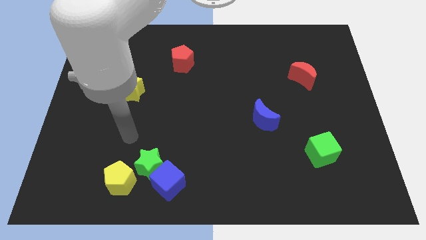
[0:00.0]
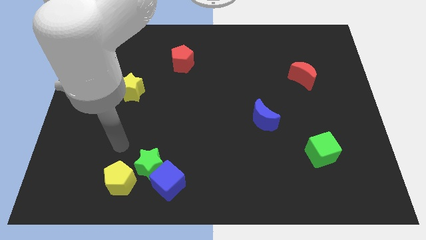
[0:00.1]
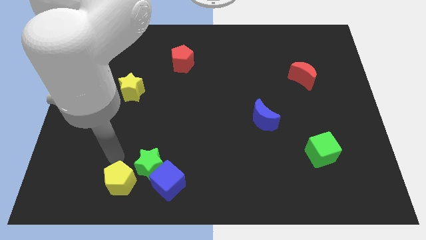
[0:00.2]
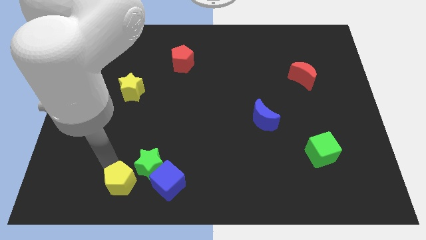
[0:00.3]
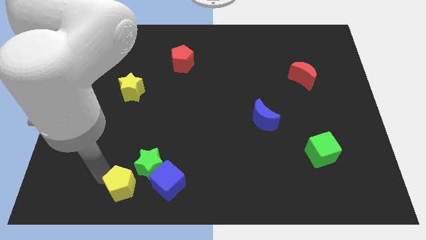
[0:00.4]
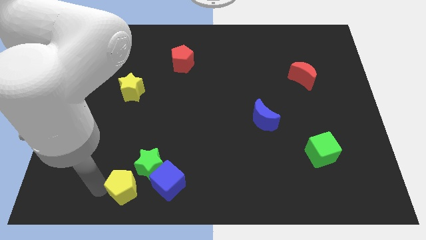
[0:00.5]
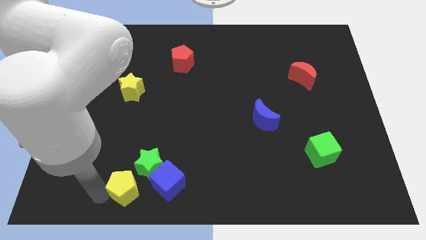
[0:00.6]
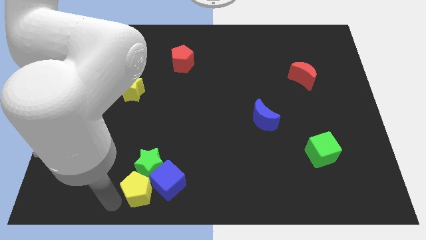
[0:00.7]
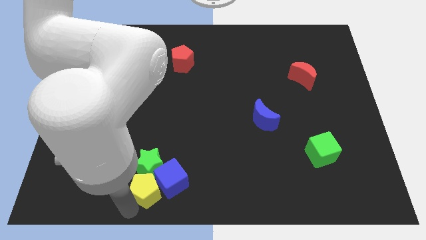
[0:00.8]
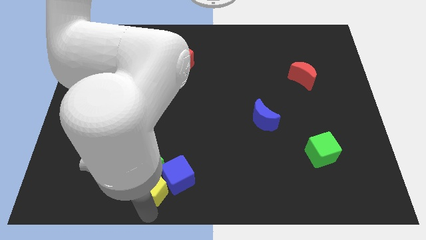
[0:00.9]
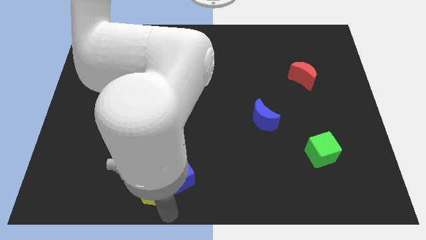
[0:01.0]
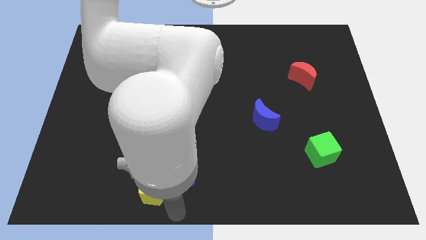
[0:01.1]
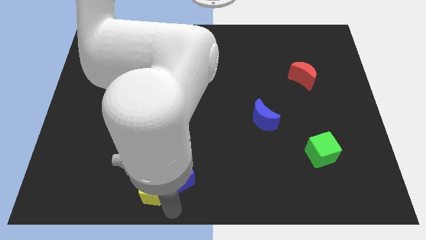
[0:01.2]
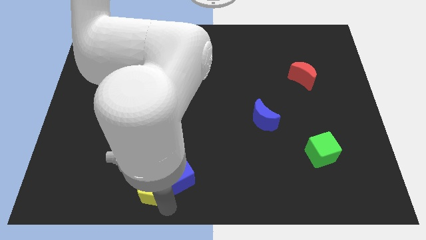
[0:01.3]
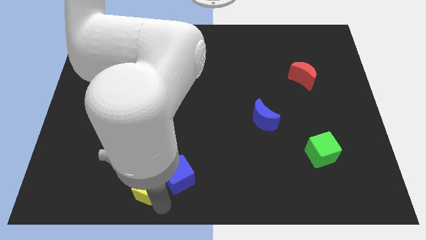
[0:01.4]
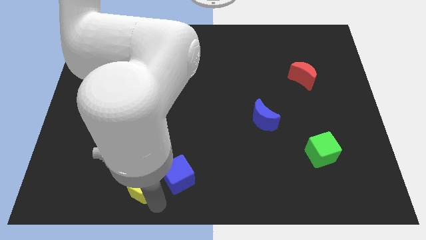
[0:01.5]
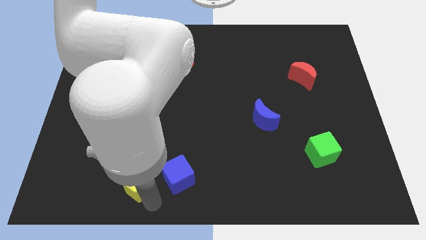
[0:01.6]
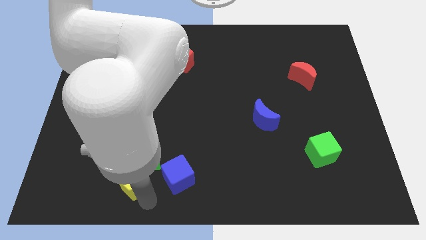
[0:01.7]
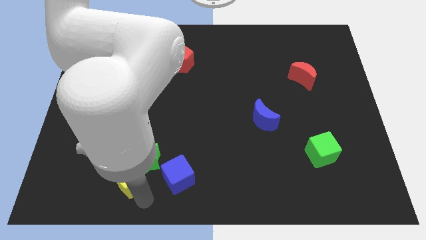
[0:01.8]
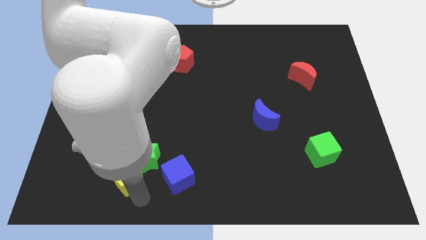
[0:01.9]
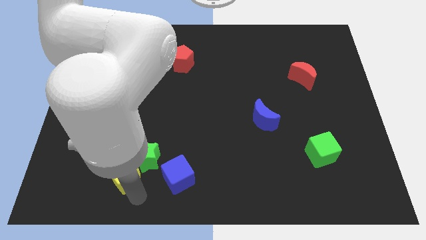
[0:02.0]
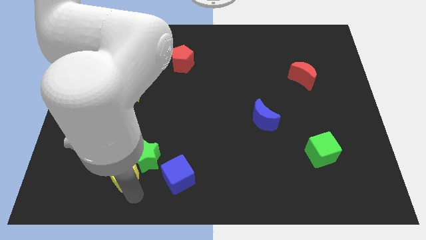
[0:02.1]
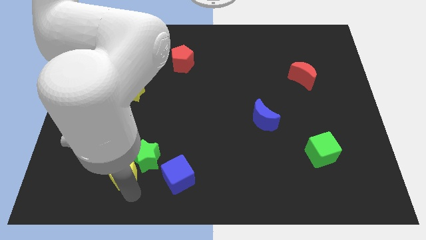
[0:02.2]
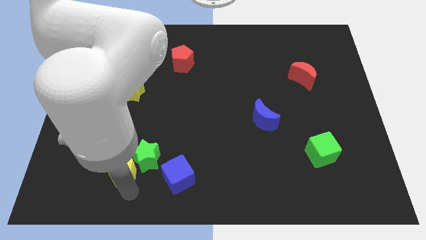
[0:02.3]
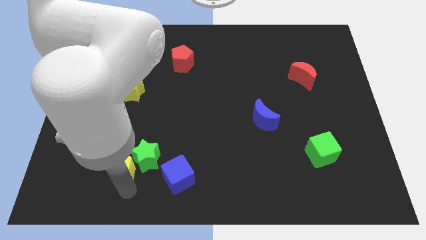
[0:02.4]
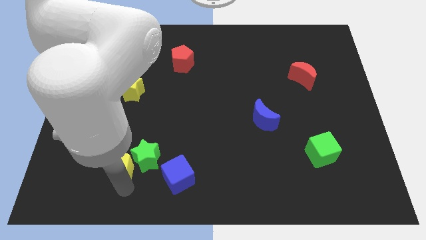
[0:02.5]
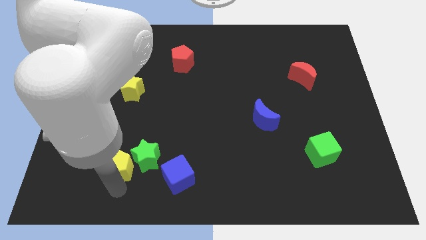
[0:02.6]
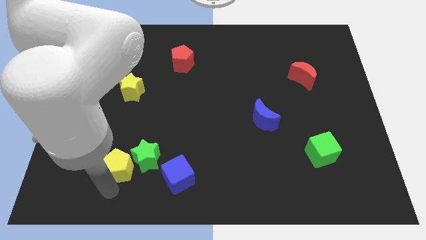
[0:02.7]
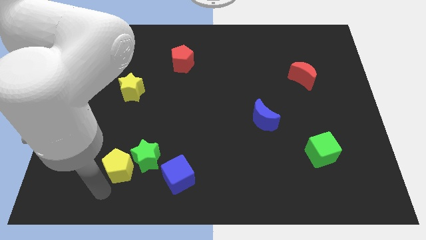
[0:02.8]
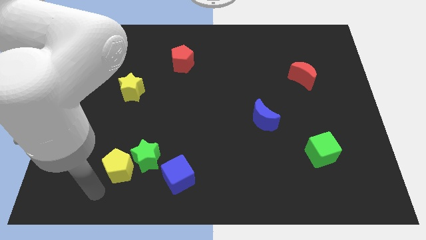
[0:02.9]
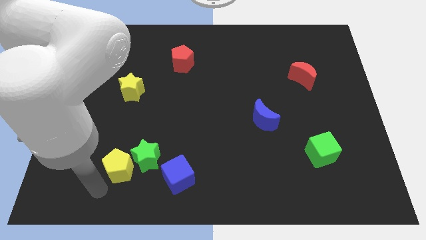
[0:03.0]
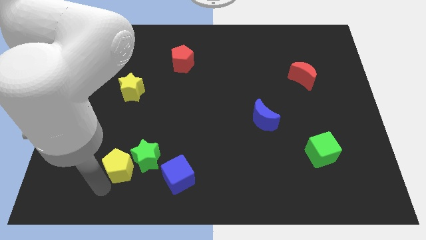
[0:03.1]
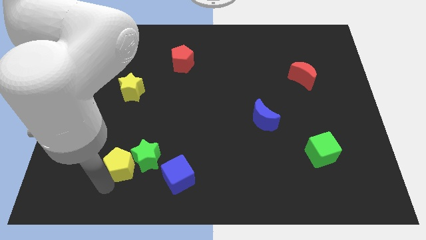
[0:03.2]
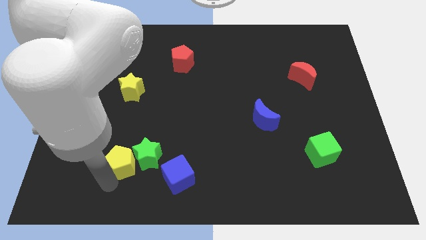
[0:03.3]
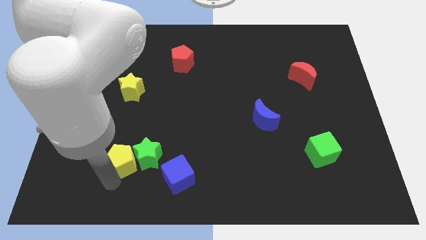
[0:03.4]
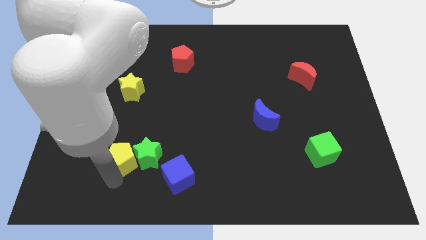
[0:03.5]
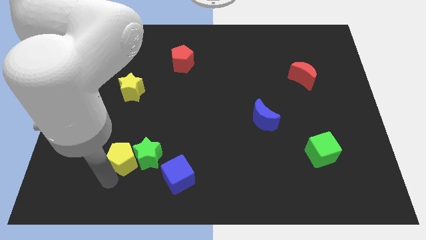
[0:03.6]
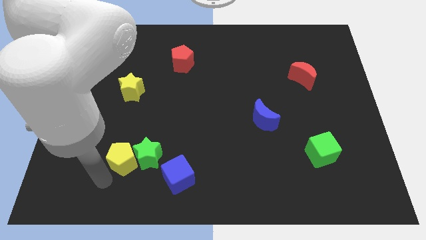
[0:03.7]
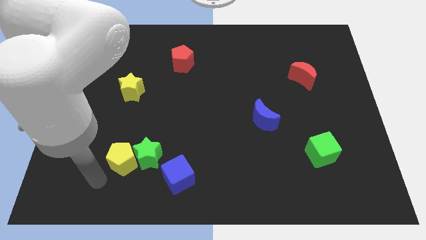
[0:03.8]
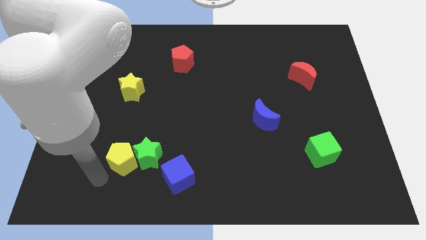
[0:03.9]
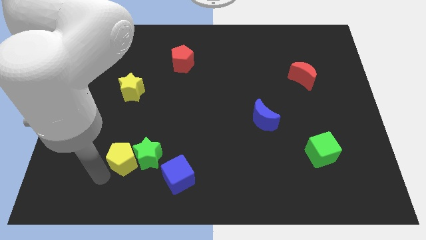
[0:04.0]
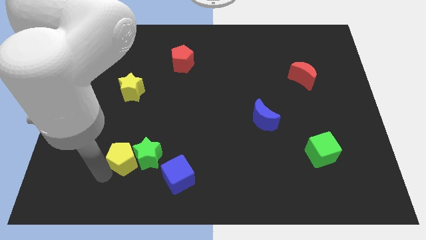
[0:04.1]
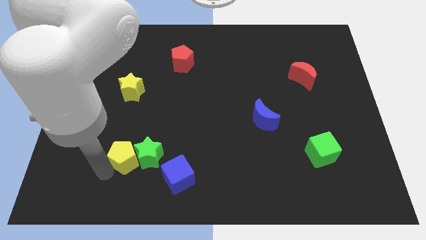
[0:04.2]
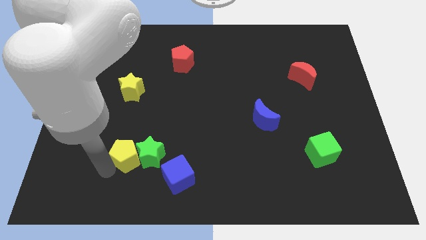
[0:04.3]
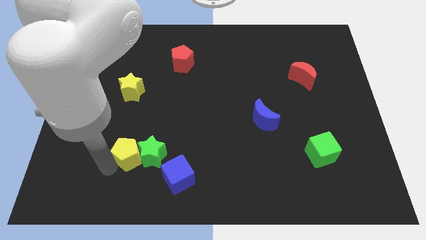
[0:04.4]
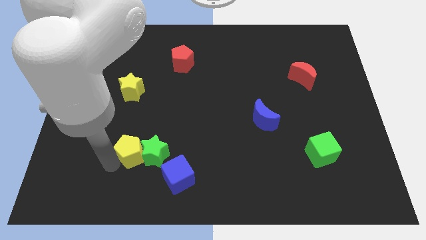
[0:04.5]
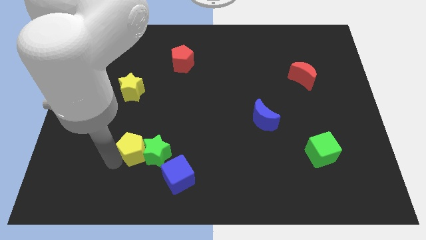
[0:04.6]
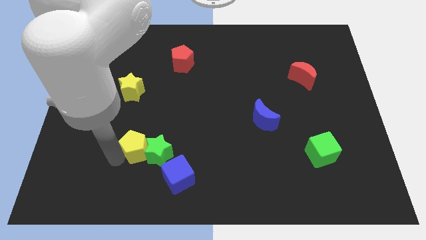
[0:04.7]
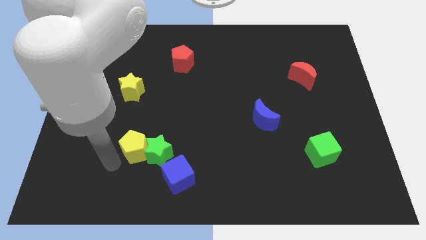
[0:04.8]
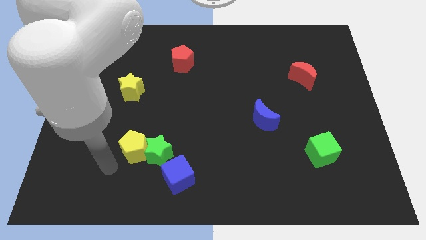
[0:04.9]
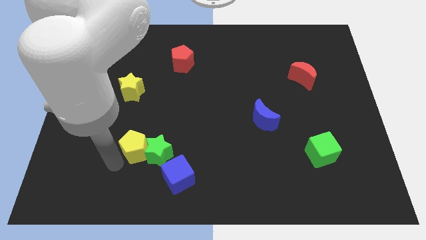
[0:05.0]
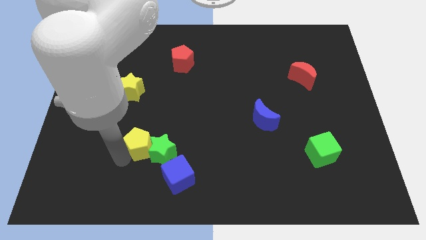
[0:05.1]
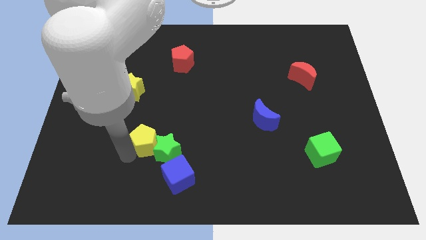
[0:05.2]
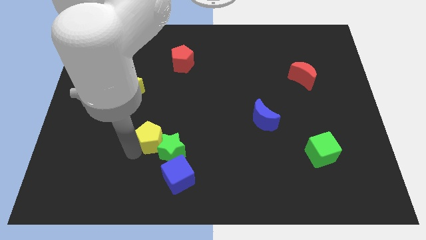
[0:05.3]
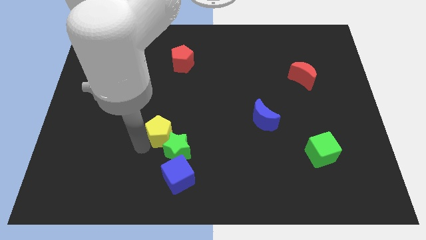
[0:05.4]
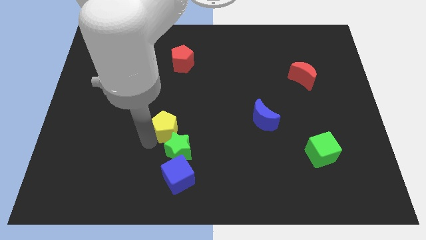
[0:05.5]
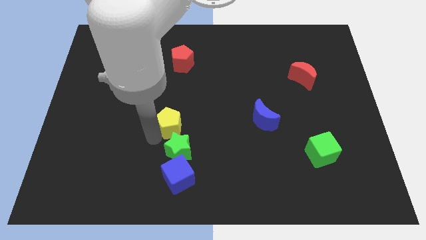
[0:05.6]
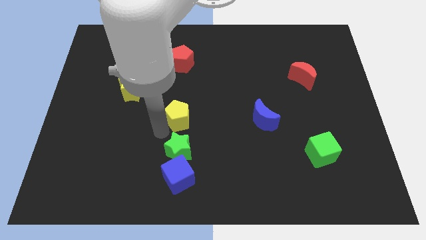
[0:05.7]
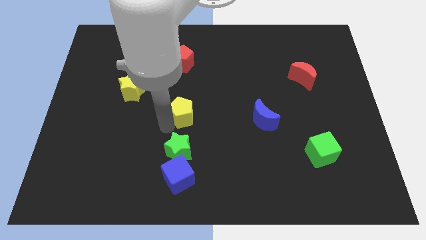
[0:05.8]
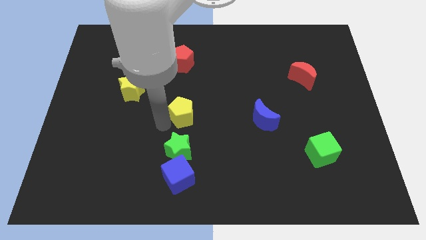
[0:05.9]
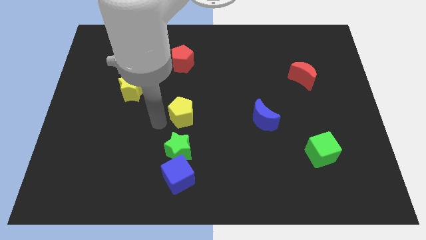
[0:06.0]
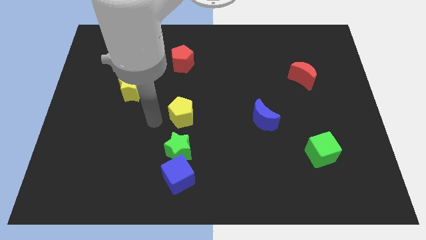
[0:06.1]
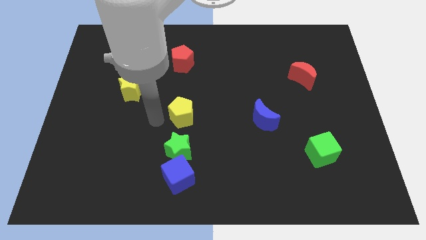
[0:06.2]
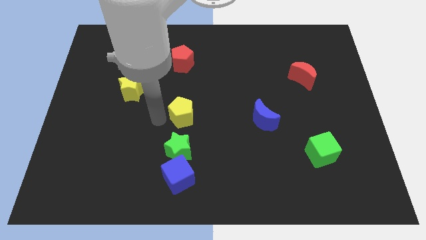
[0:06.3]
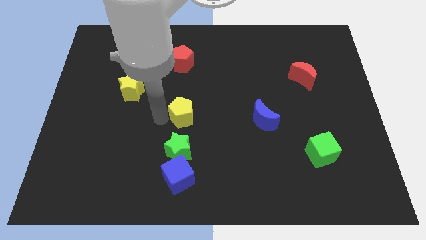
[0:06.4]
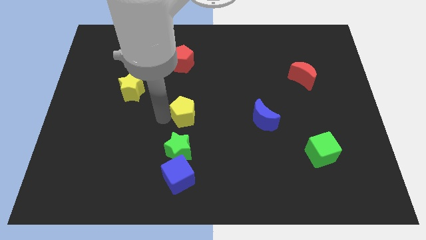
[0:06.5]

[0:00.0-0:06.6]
push the yellow pentagon upwards and then to the right

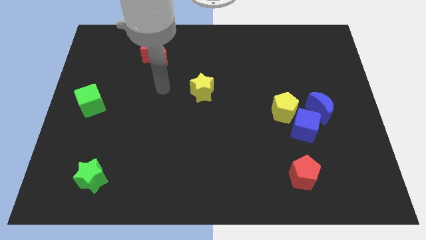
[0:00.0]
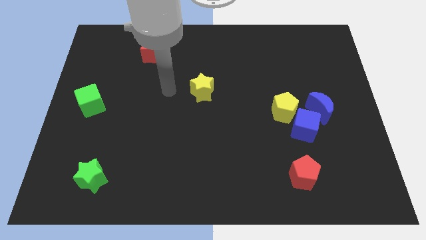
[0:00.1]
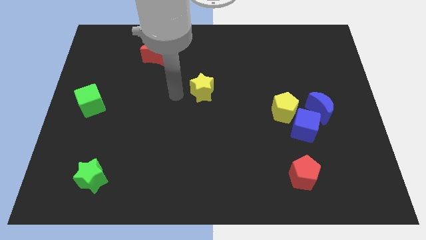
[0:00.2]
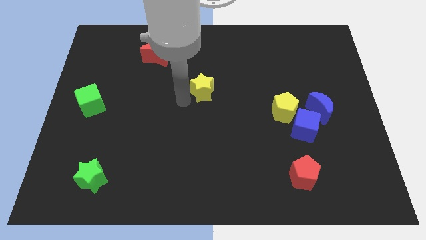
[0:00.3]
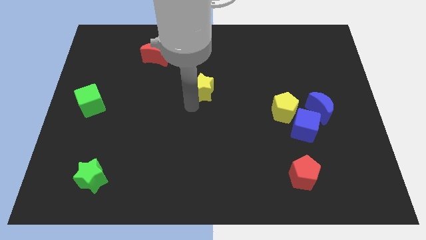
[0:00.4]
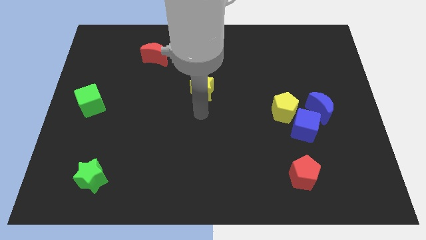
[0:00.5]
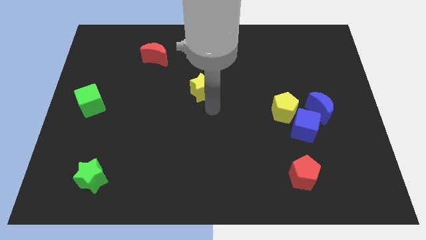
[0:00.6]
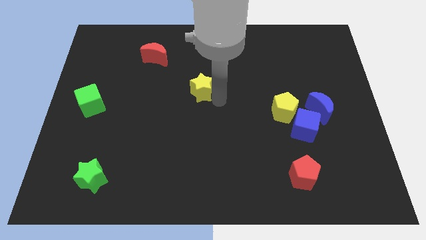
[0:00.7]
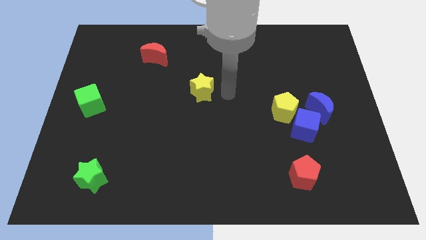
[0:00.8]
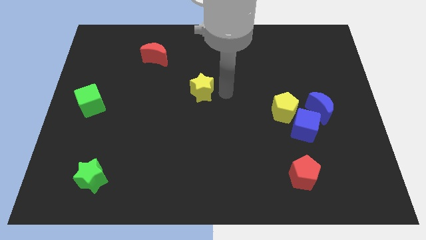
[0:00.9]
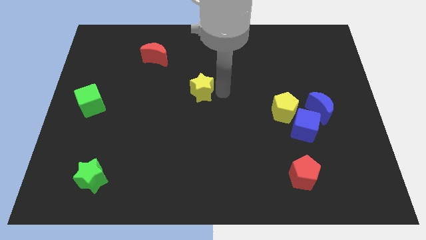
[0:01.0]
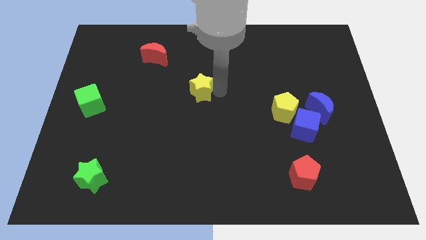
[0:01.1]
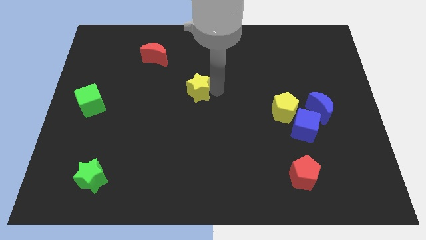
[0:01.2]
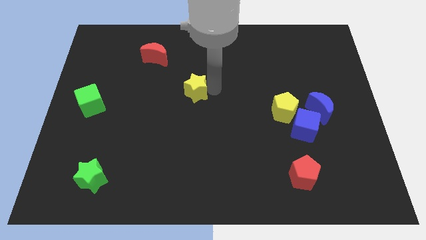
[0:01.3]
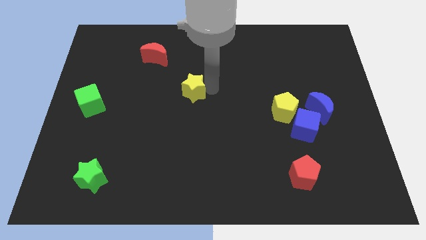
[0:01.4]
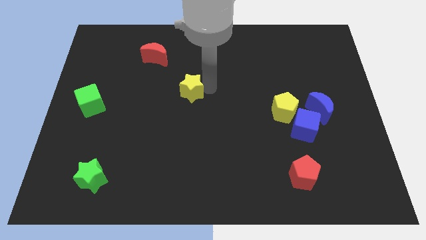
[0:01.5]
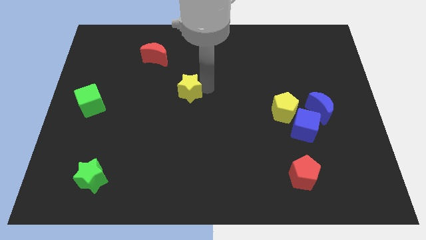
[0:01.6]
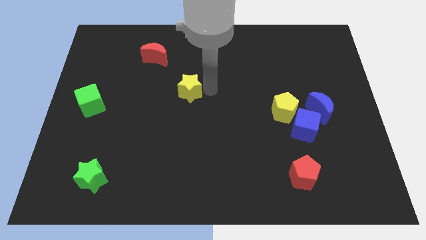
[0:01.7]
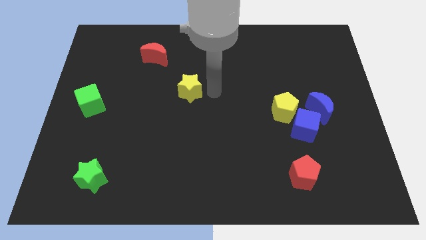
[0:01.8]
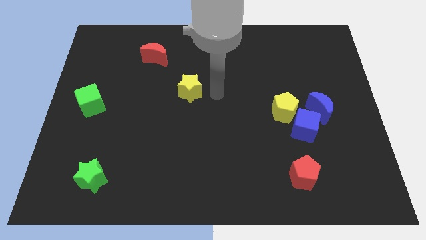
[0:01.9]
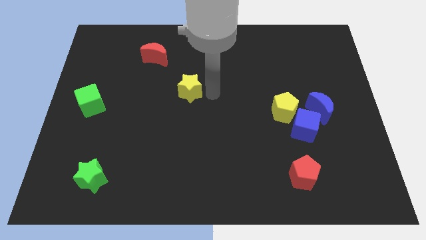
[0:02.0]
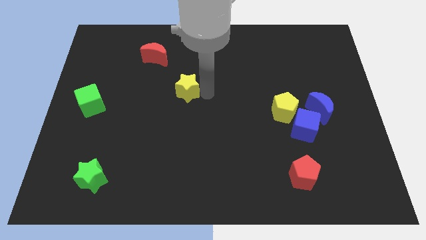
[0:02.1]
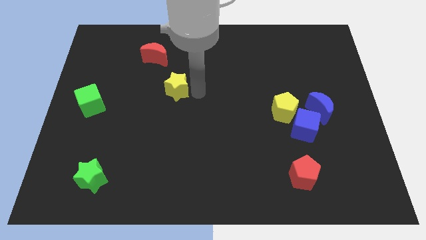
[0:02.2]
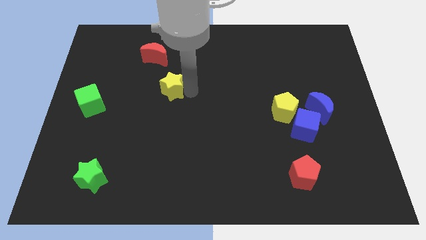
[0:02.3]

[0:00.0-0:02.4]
push the yellow star left somewhat
